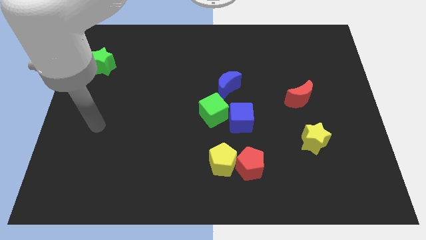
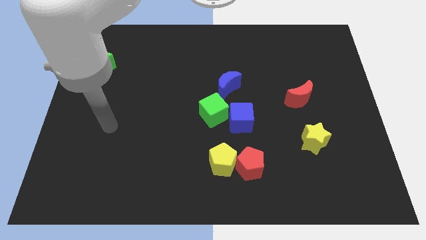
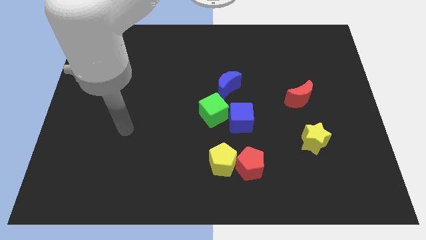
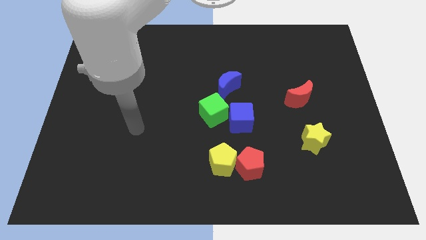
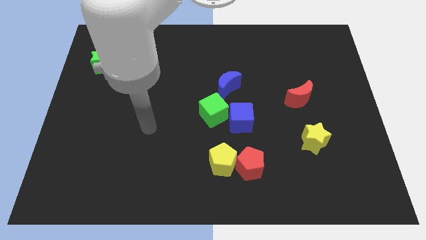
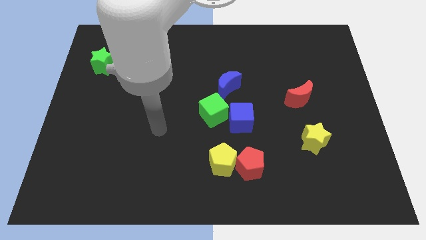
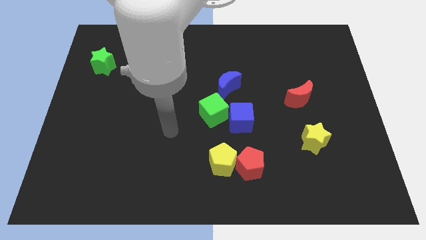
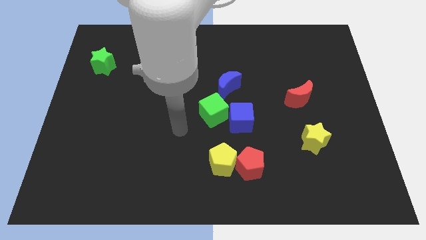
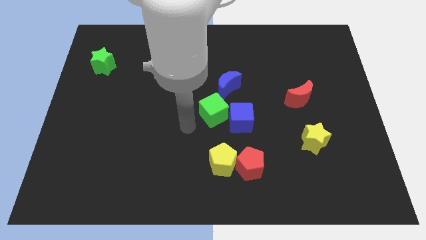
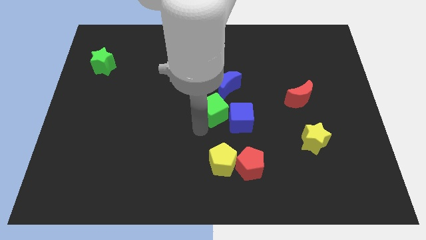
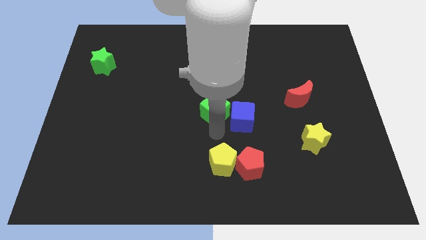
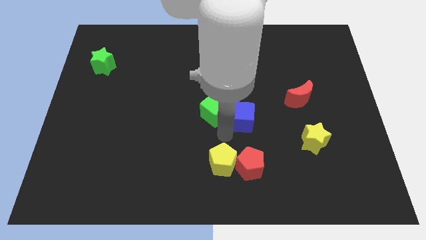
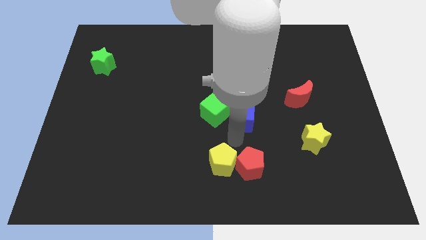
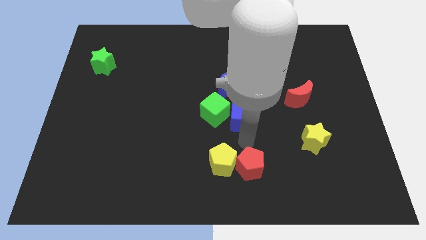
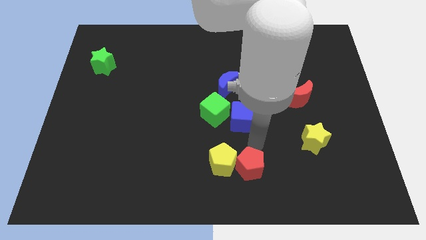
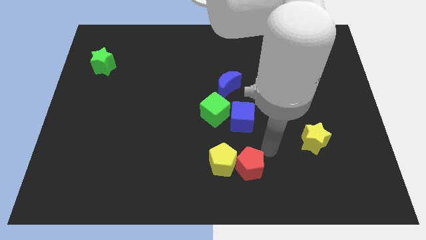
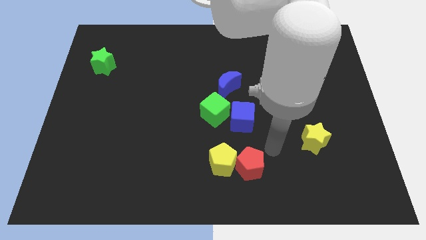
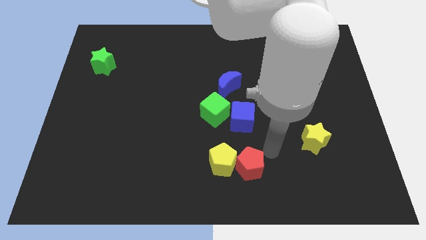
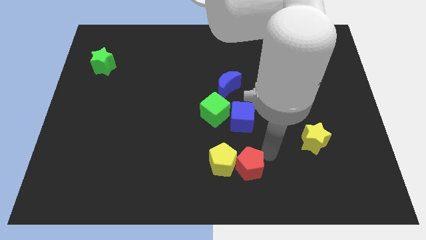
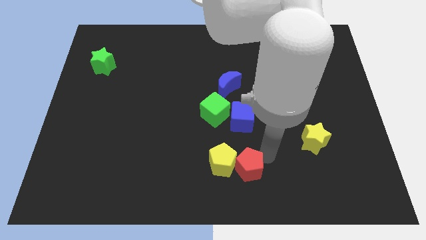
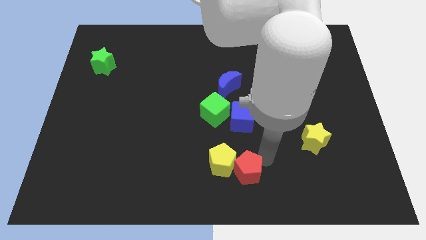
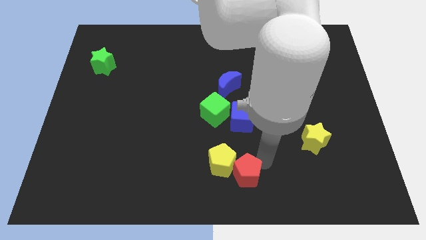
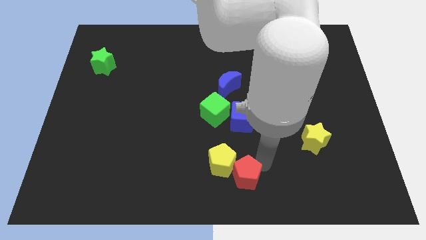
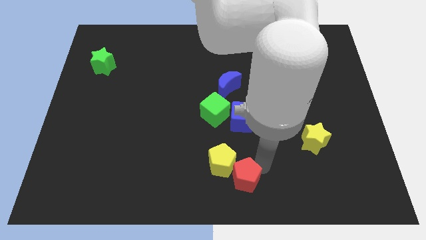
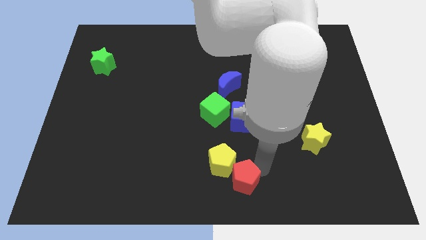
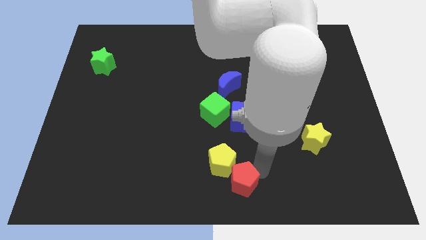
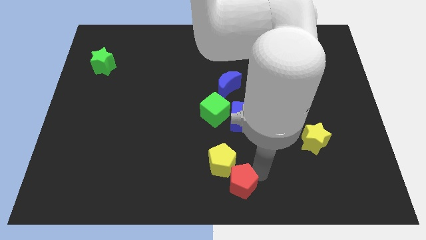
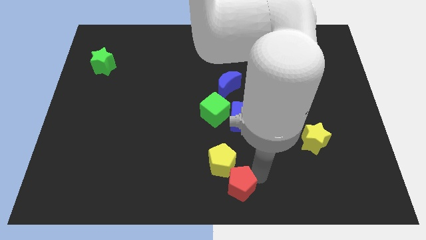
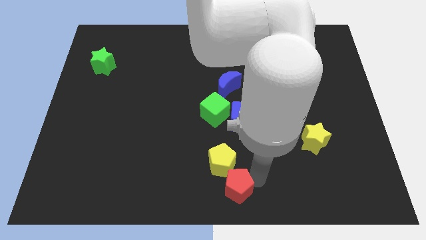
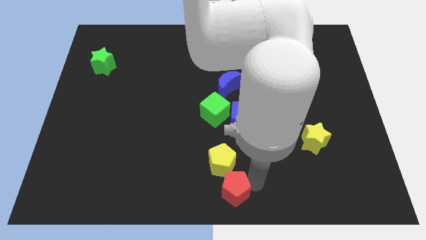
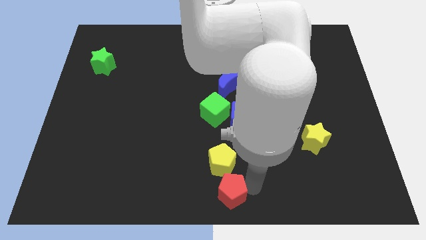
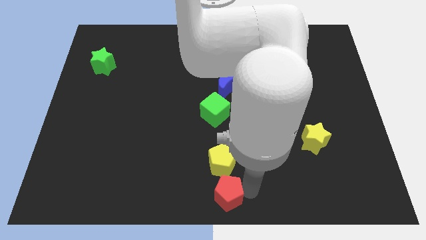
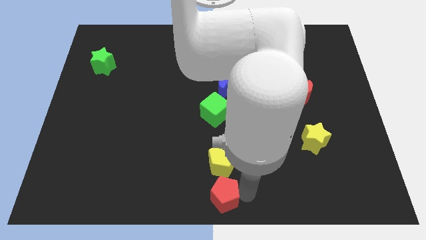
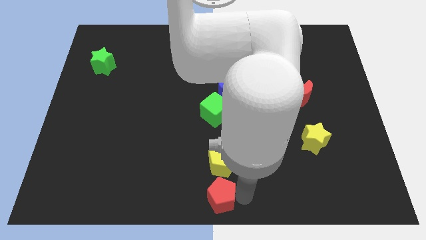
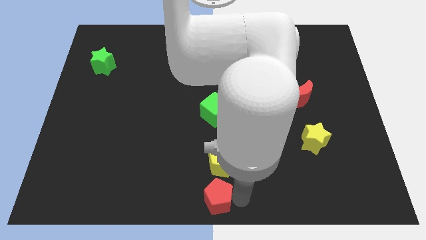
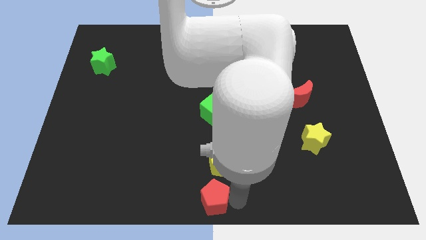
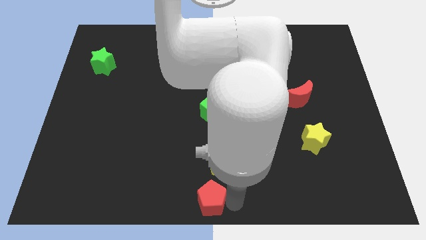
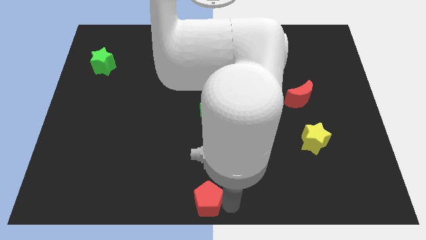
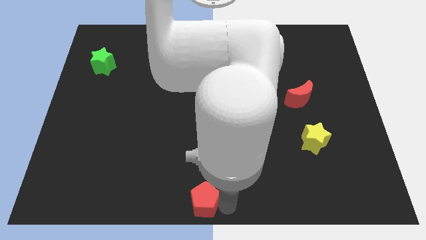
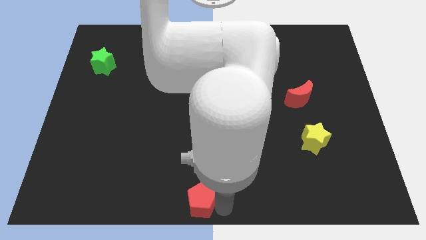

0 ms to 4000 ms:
slide the red pentagon somewhat left

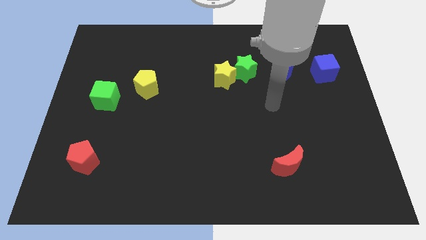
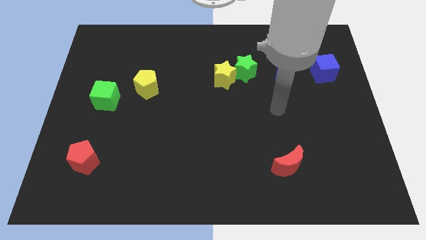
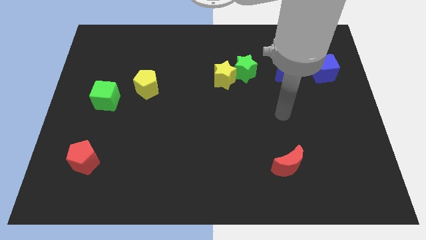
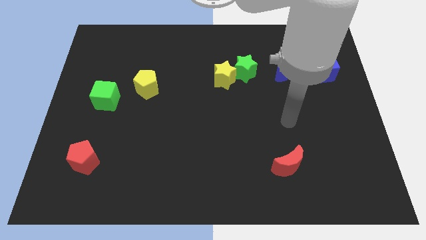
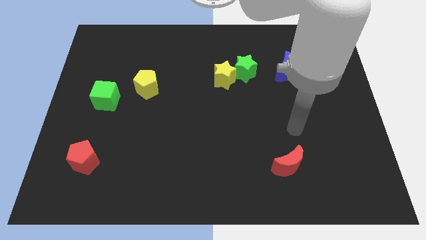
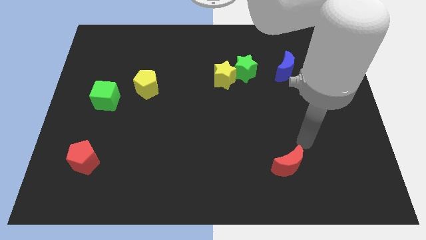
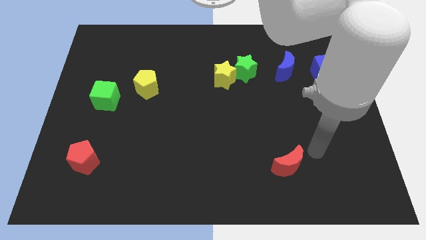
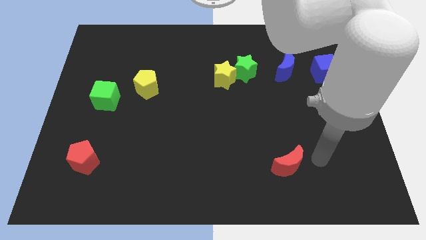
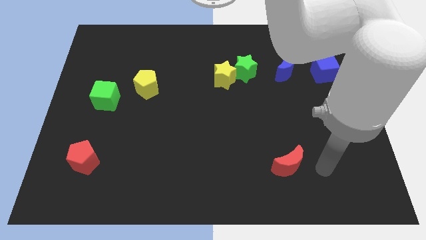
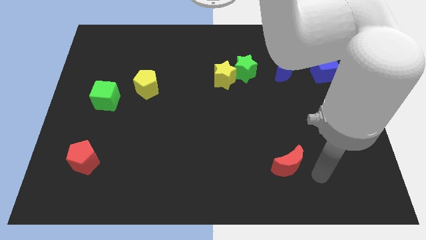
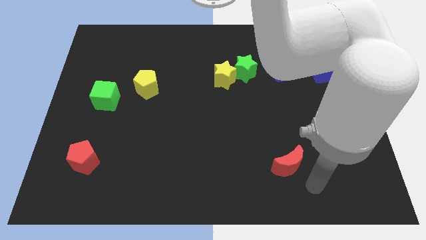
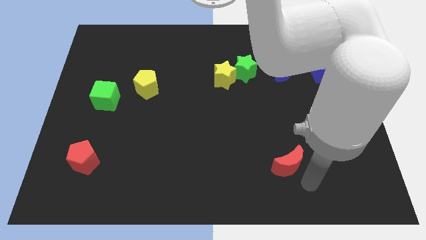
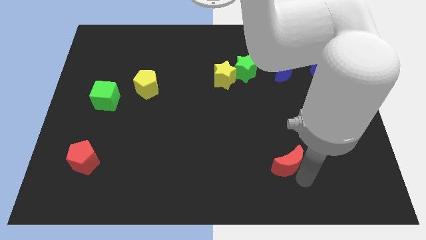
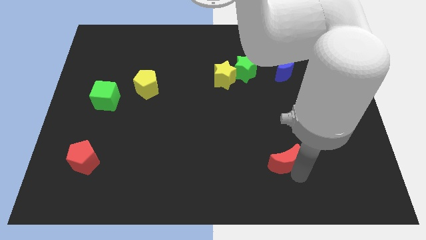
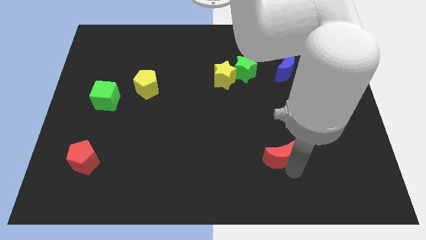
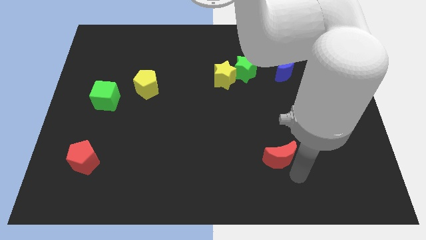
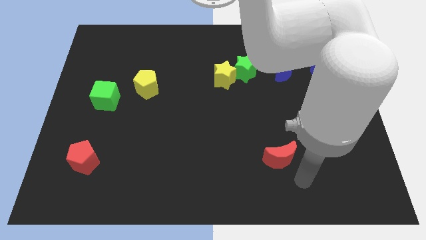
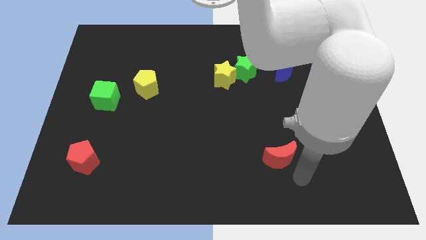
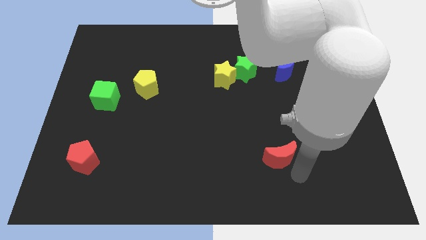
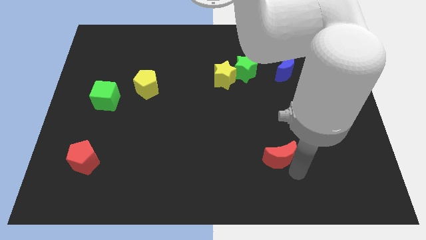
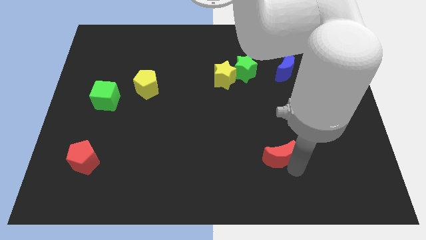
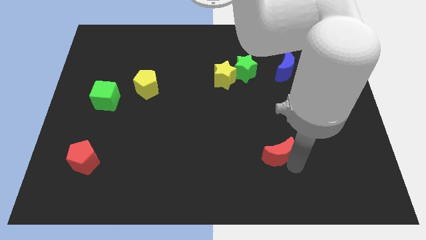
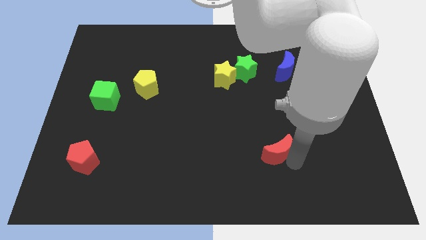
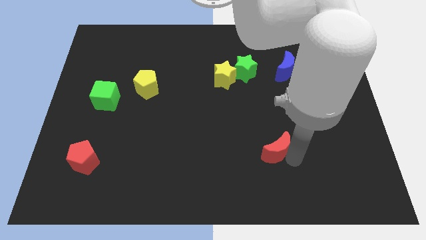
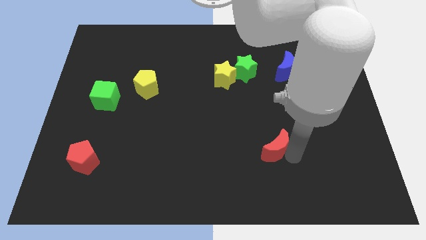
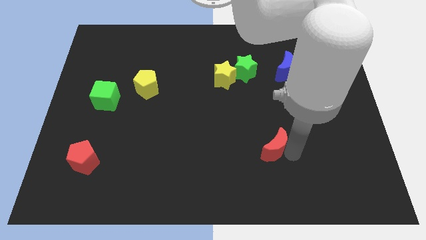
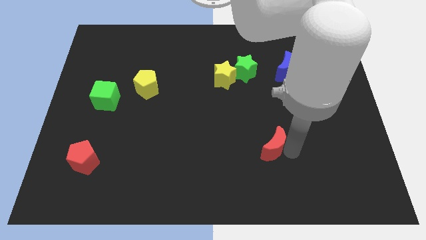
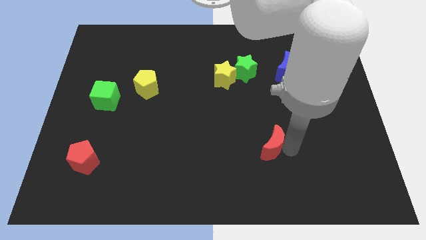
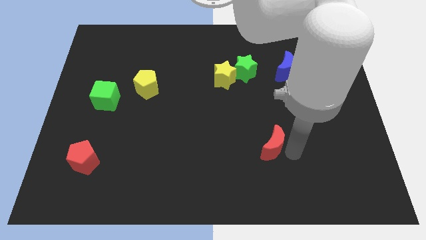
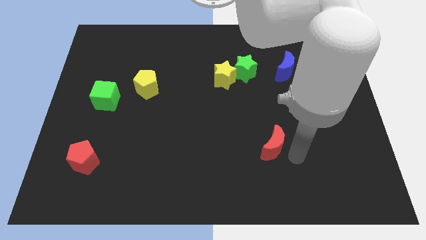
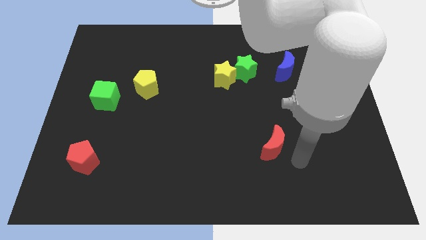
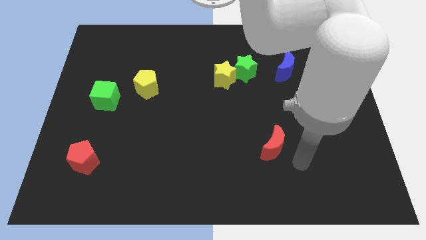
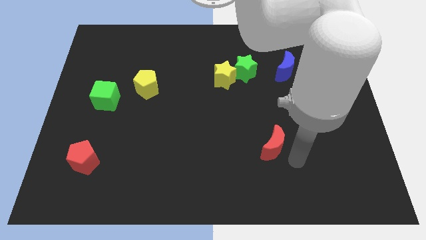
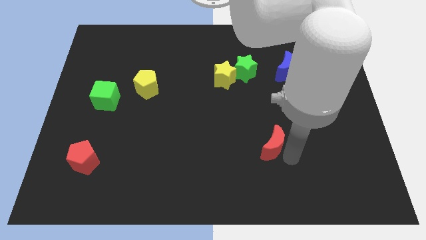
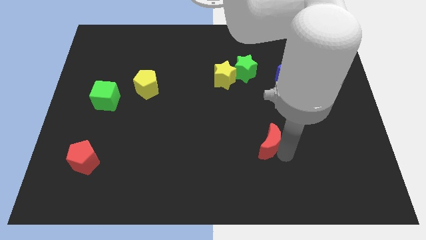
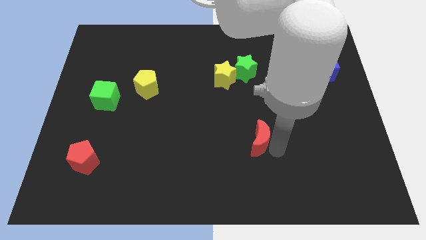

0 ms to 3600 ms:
slightly slide the red moon upwards and to the left diagonally
